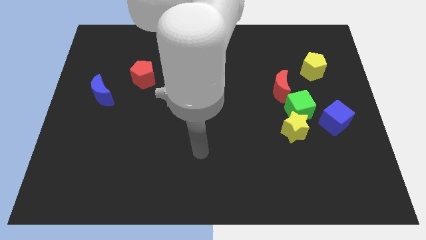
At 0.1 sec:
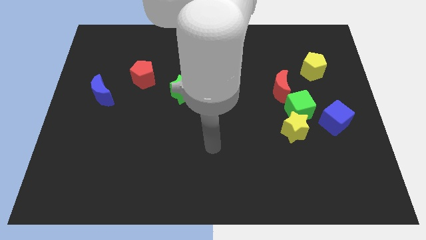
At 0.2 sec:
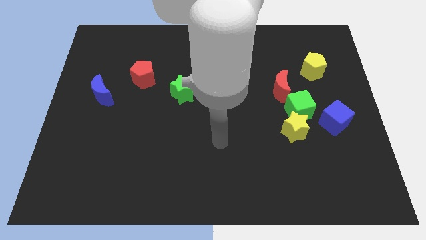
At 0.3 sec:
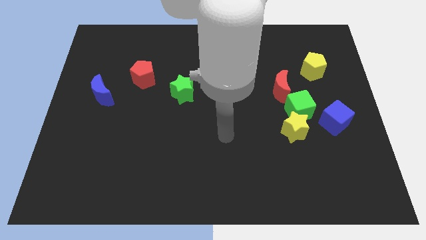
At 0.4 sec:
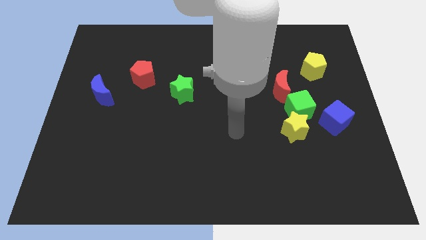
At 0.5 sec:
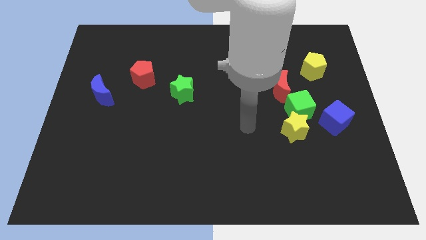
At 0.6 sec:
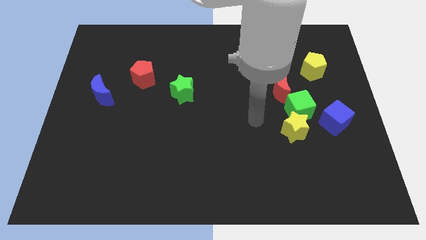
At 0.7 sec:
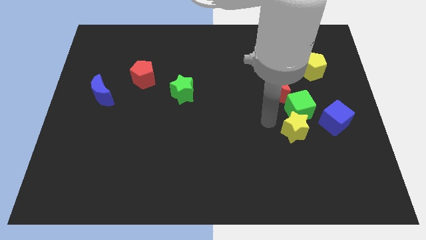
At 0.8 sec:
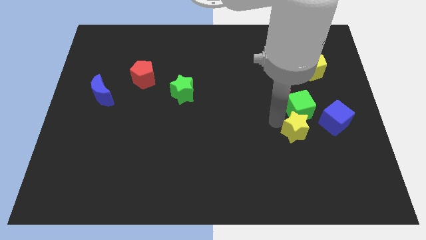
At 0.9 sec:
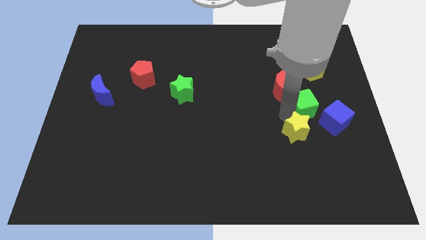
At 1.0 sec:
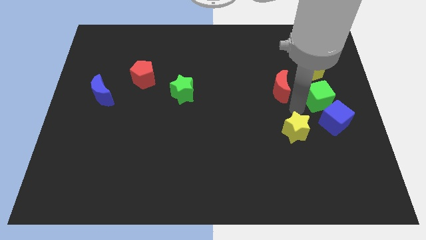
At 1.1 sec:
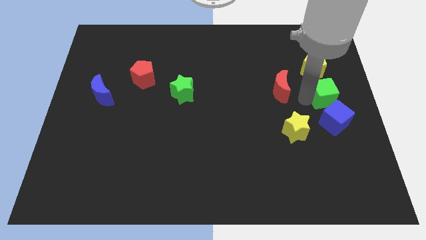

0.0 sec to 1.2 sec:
separate the red moon from the green cube

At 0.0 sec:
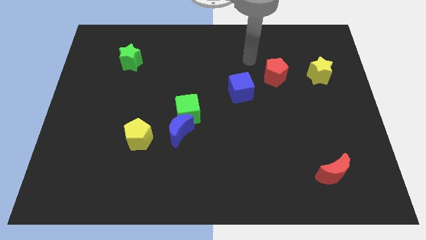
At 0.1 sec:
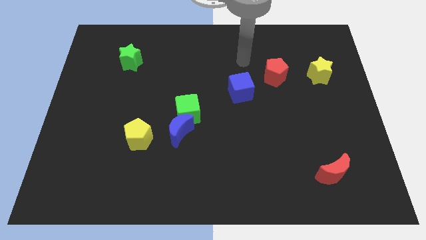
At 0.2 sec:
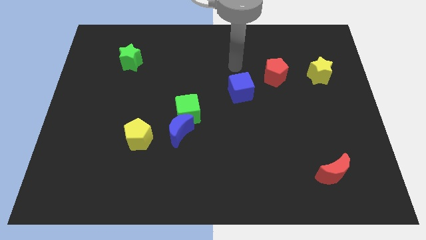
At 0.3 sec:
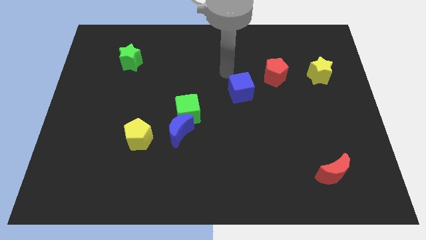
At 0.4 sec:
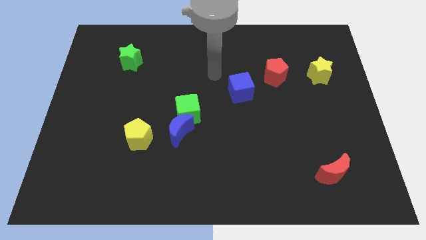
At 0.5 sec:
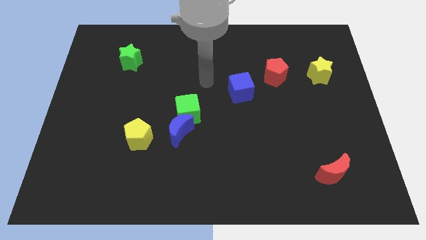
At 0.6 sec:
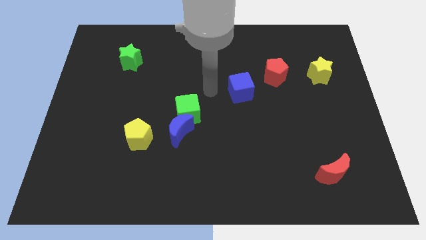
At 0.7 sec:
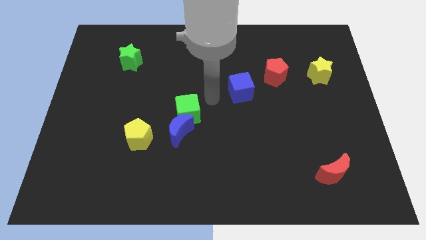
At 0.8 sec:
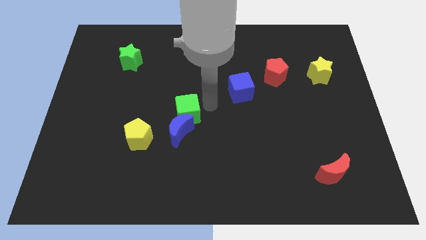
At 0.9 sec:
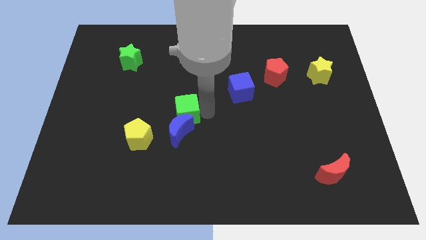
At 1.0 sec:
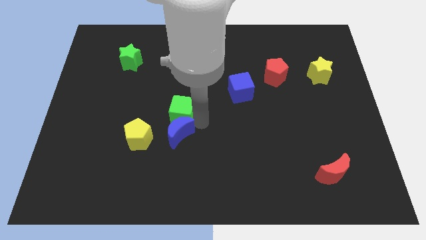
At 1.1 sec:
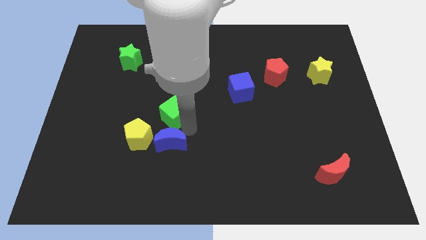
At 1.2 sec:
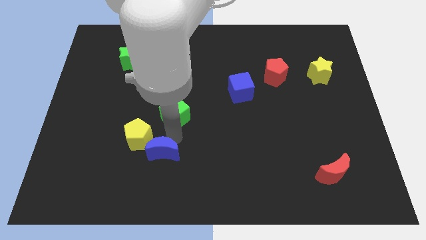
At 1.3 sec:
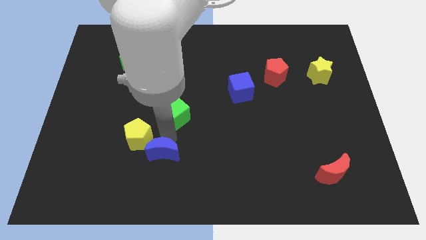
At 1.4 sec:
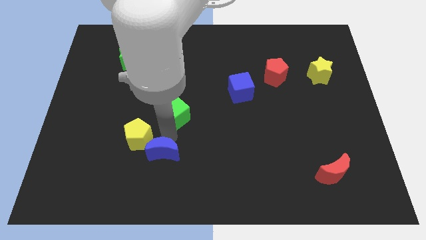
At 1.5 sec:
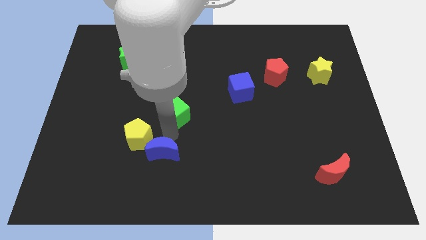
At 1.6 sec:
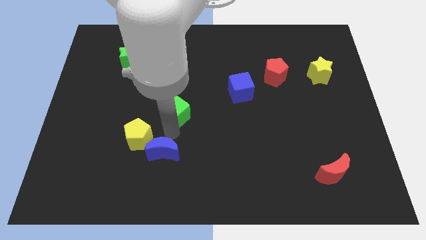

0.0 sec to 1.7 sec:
separate the green cube from the blue moon

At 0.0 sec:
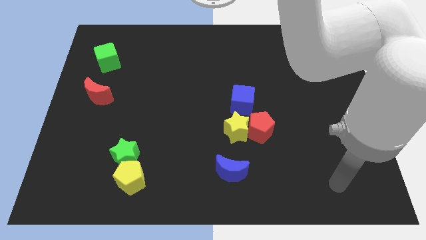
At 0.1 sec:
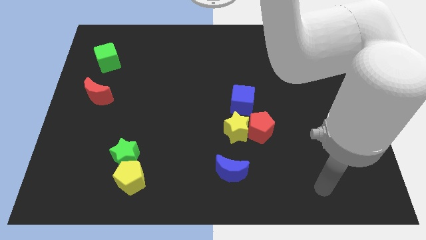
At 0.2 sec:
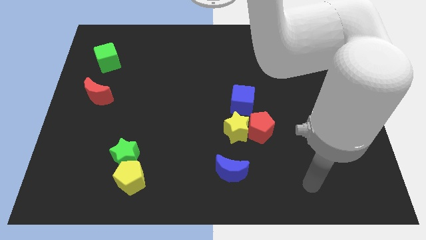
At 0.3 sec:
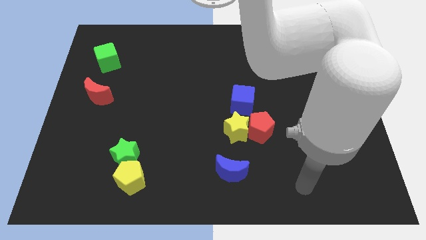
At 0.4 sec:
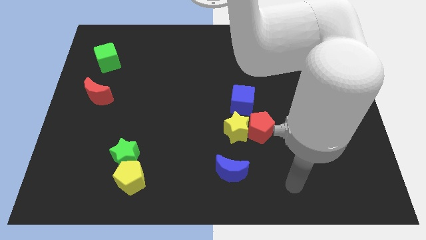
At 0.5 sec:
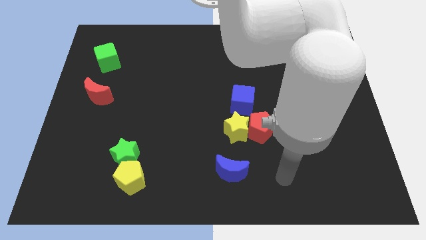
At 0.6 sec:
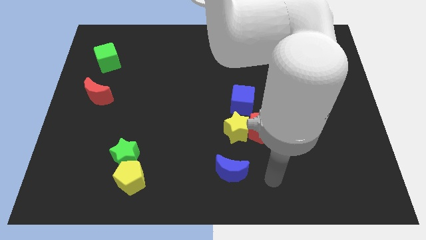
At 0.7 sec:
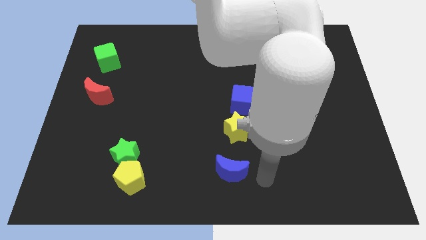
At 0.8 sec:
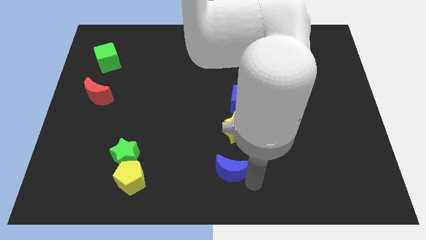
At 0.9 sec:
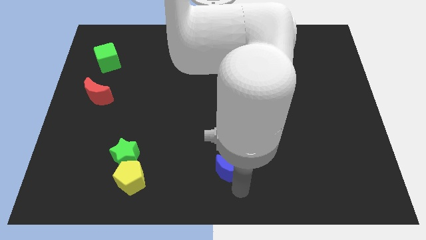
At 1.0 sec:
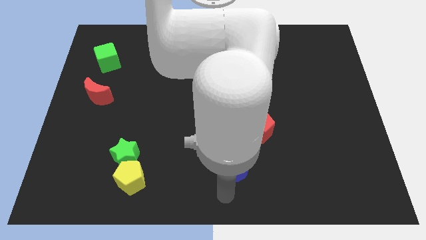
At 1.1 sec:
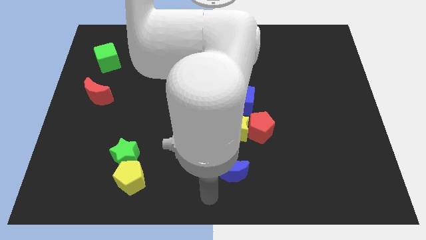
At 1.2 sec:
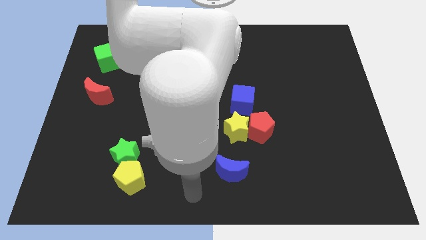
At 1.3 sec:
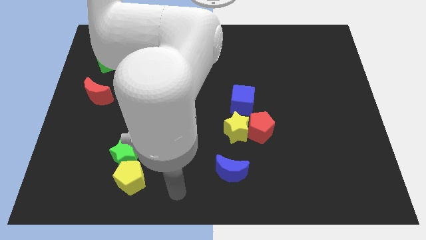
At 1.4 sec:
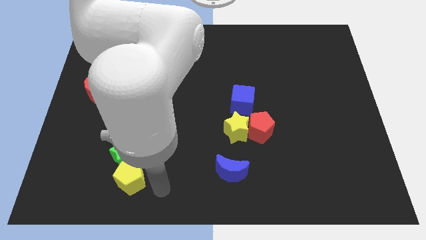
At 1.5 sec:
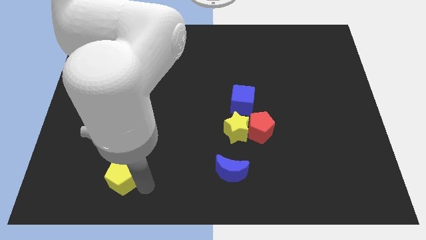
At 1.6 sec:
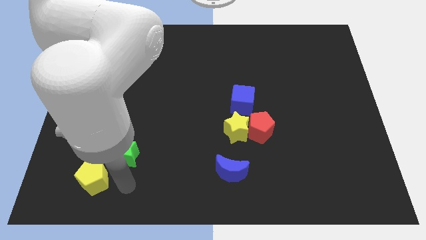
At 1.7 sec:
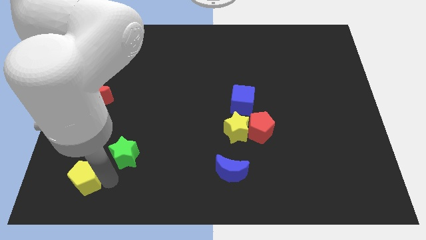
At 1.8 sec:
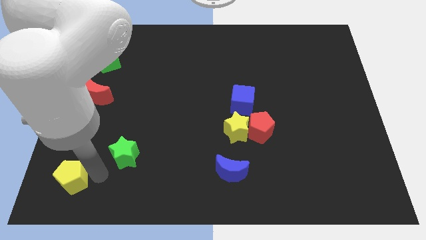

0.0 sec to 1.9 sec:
pull the green star apart from the yellow pentagon

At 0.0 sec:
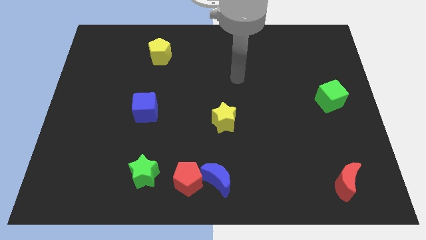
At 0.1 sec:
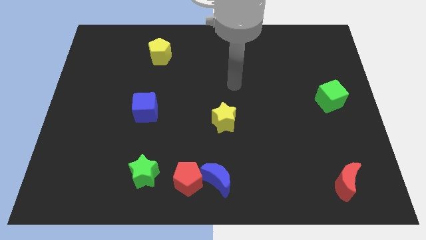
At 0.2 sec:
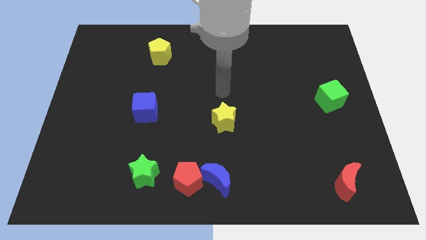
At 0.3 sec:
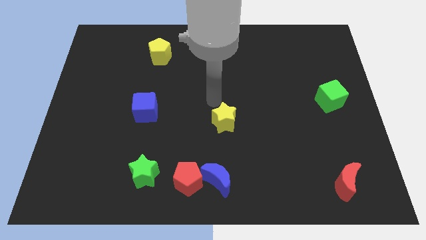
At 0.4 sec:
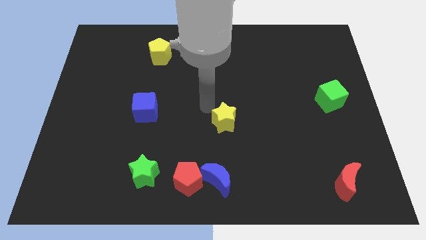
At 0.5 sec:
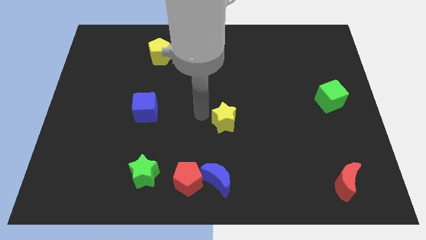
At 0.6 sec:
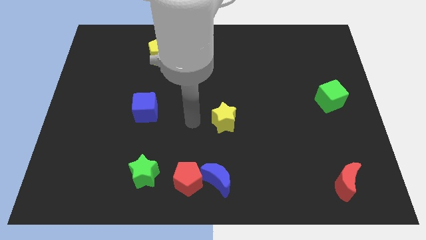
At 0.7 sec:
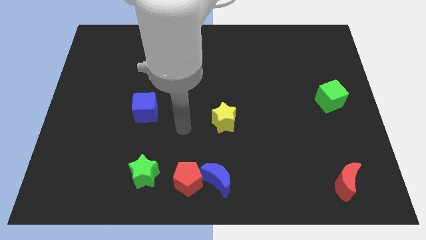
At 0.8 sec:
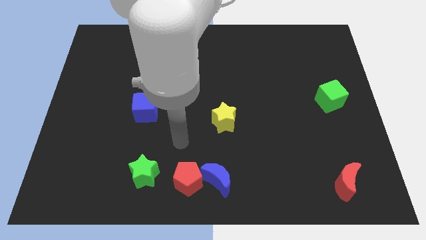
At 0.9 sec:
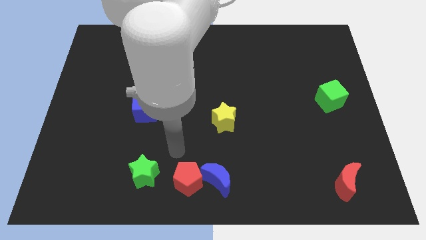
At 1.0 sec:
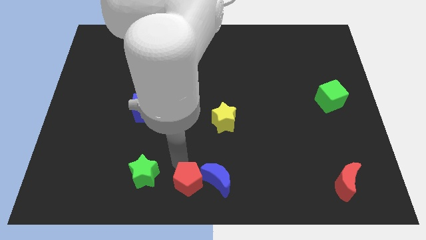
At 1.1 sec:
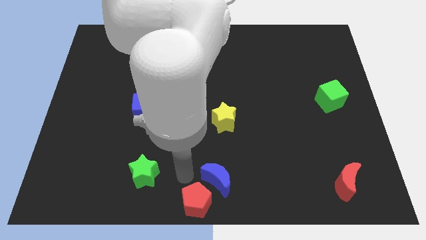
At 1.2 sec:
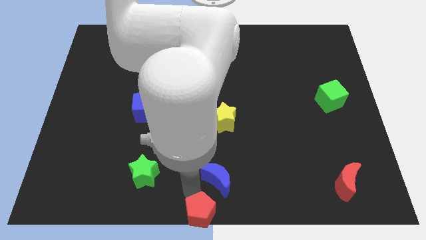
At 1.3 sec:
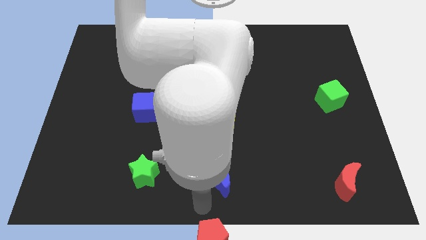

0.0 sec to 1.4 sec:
separate the blue moon from the red pentagon

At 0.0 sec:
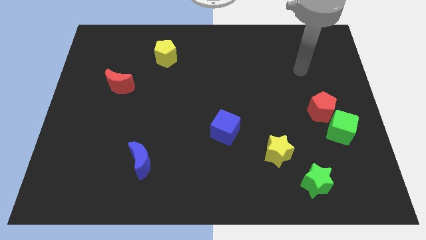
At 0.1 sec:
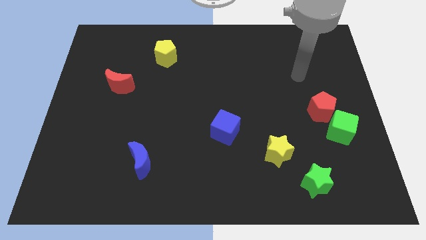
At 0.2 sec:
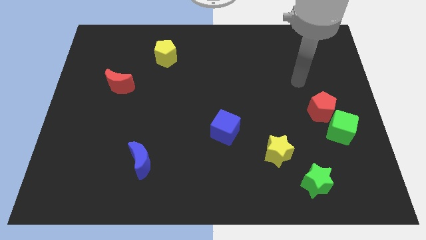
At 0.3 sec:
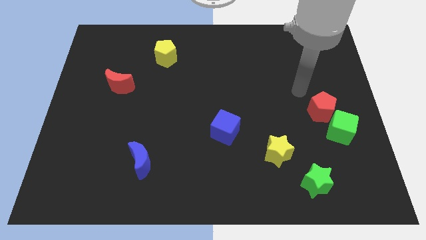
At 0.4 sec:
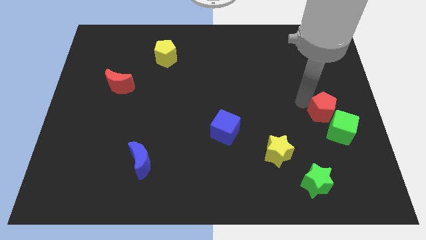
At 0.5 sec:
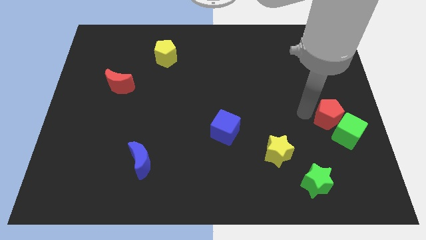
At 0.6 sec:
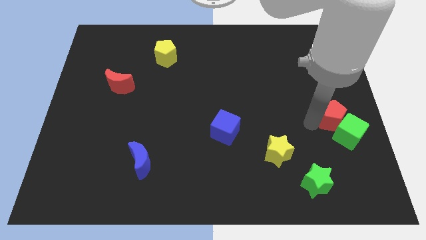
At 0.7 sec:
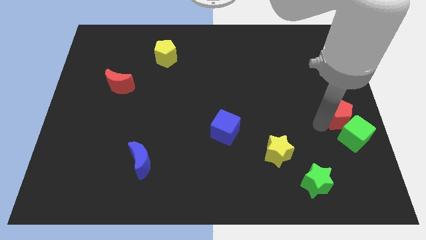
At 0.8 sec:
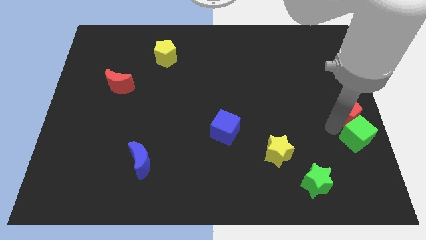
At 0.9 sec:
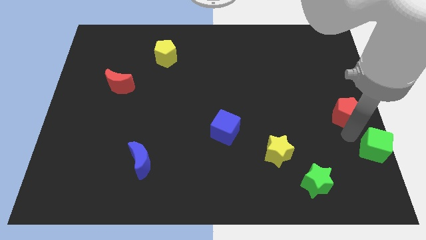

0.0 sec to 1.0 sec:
move the red pentagon away from the green cube

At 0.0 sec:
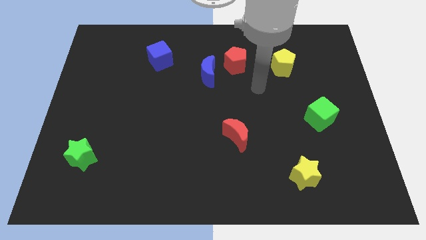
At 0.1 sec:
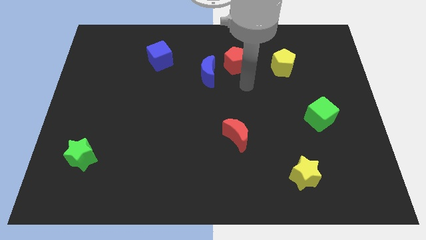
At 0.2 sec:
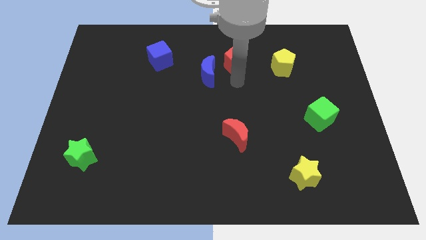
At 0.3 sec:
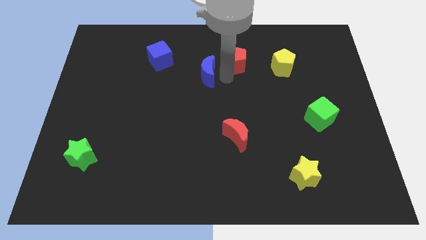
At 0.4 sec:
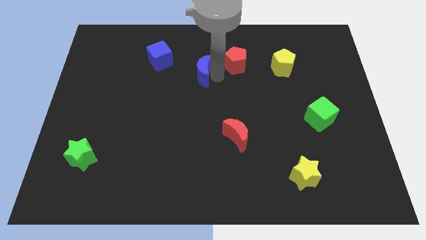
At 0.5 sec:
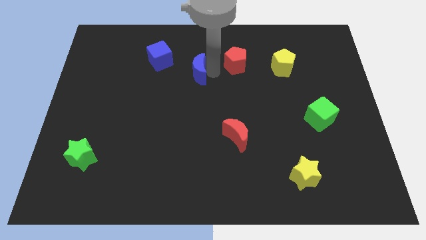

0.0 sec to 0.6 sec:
separate the red pentagon from the blue moon

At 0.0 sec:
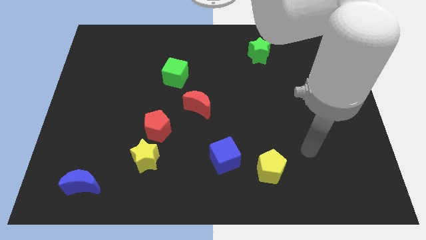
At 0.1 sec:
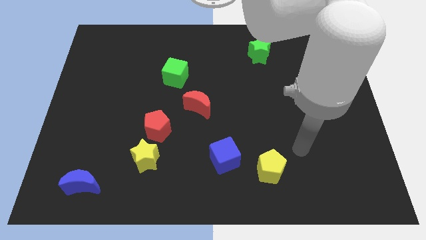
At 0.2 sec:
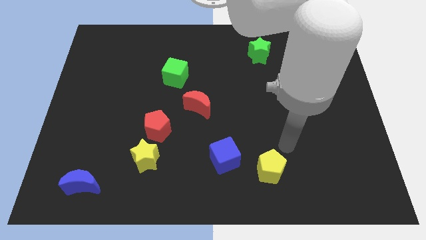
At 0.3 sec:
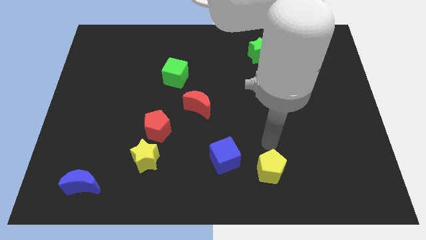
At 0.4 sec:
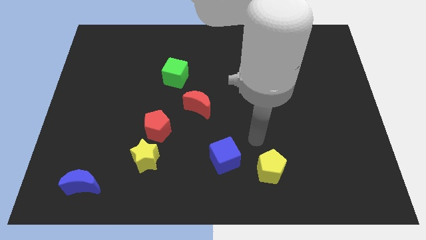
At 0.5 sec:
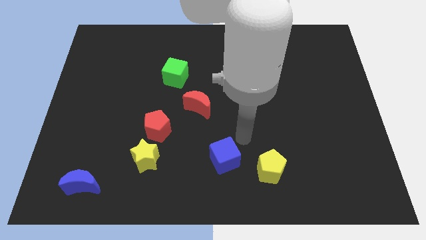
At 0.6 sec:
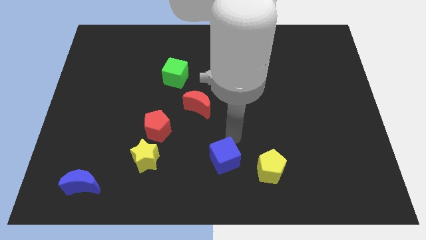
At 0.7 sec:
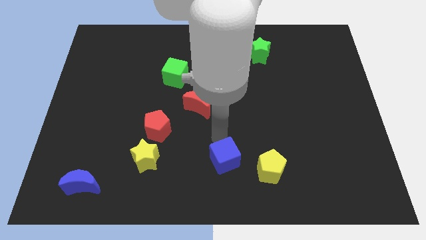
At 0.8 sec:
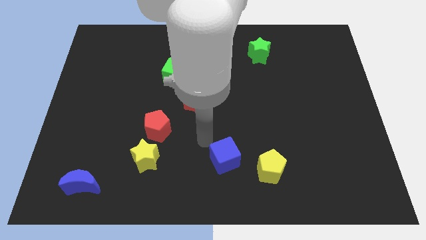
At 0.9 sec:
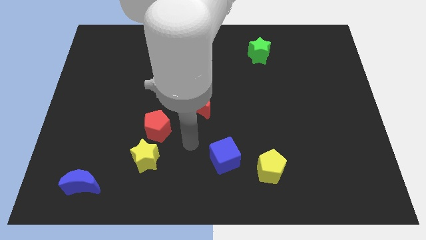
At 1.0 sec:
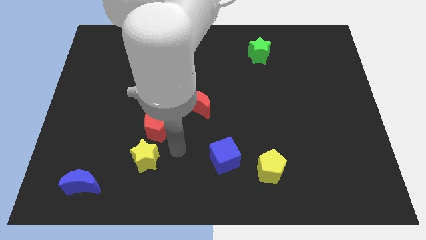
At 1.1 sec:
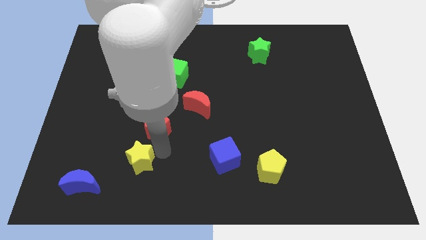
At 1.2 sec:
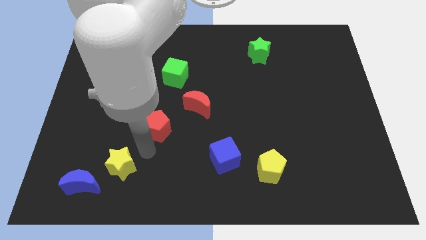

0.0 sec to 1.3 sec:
separate the red pentagon from the yellow star
